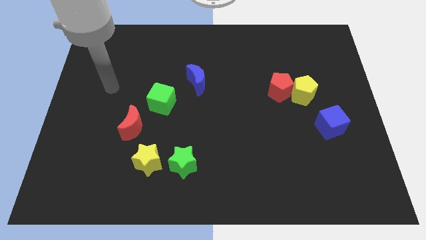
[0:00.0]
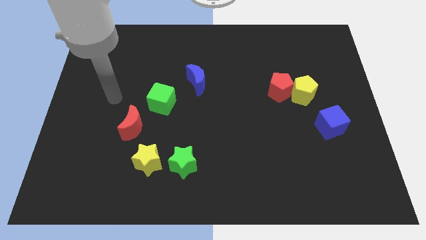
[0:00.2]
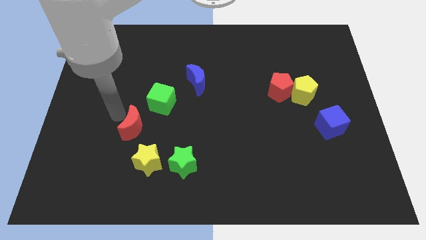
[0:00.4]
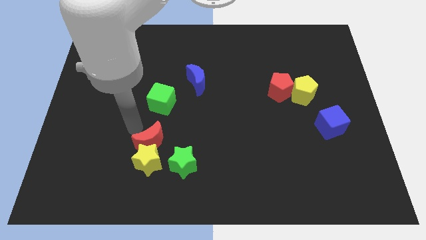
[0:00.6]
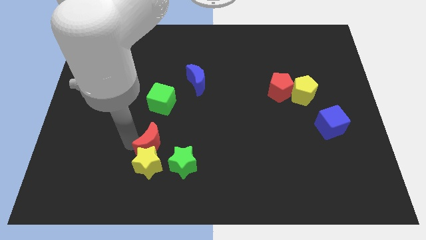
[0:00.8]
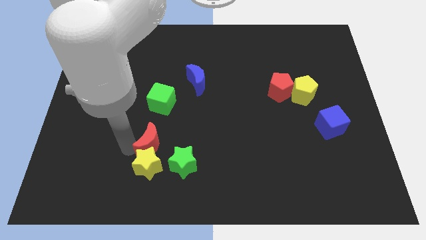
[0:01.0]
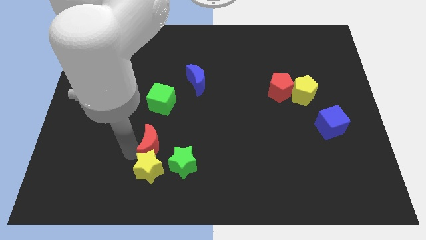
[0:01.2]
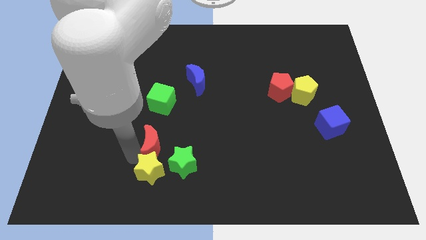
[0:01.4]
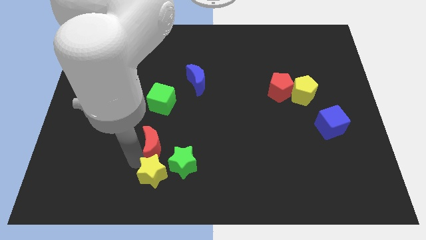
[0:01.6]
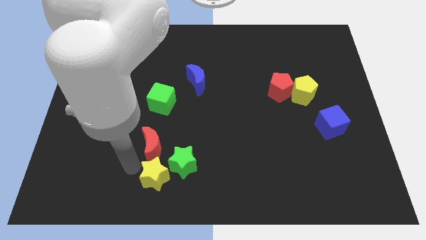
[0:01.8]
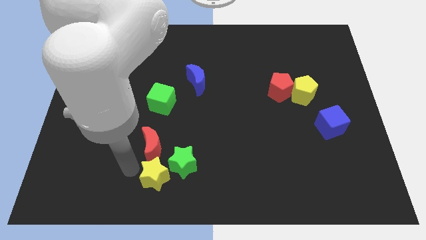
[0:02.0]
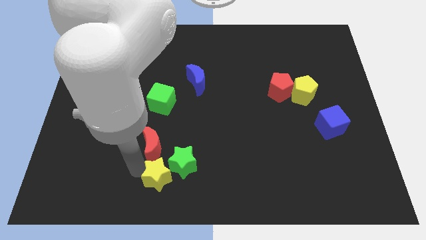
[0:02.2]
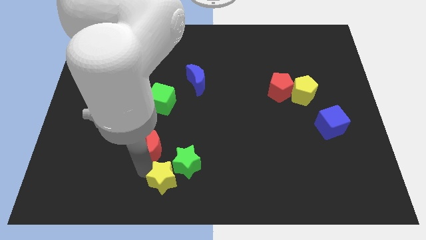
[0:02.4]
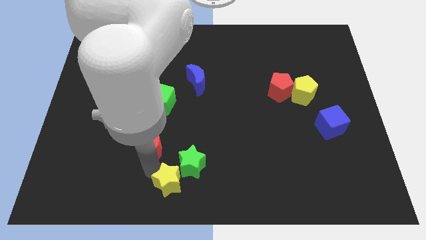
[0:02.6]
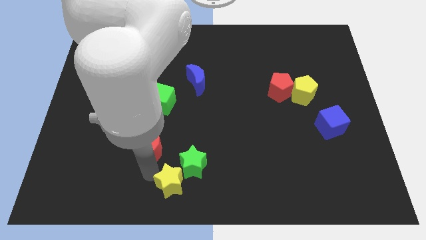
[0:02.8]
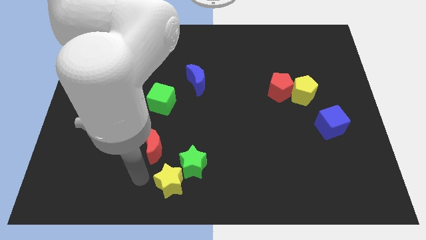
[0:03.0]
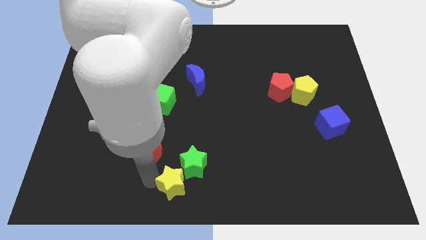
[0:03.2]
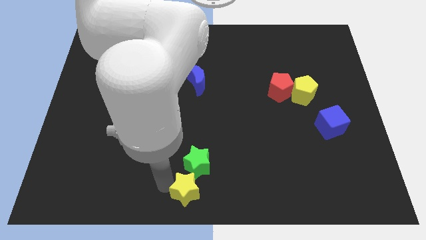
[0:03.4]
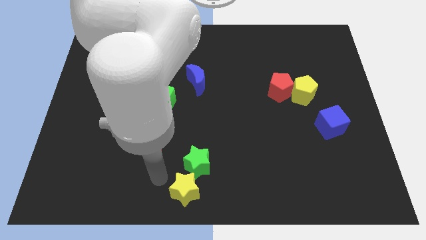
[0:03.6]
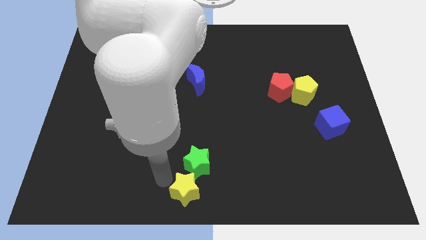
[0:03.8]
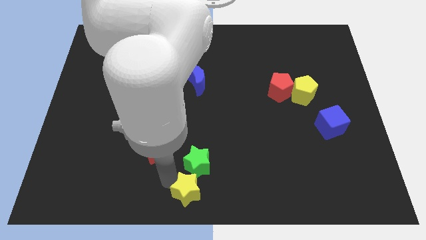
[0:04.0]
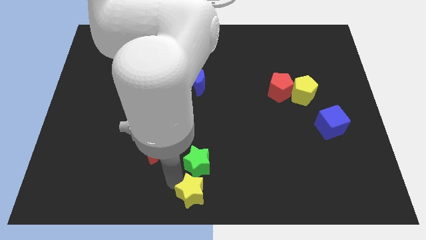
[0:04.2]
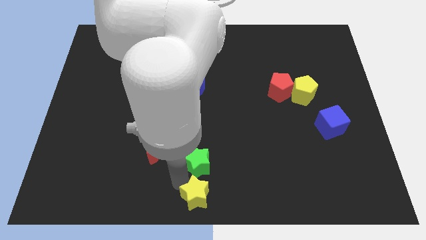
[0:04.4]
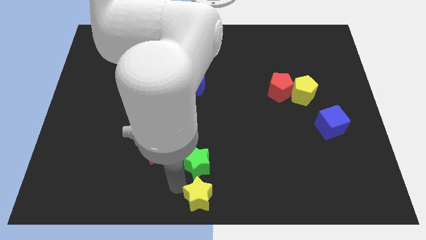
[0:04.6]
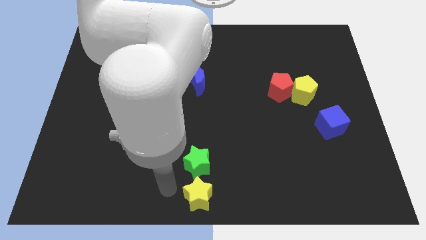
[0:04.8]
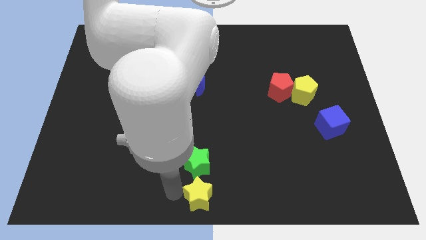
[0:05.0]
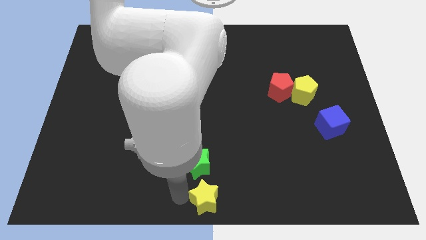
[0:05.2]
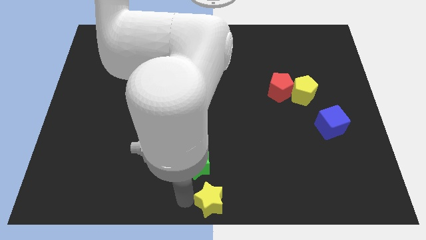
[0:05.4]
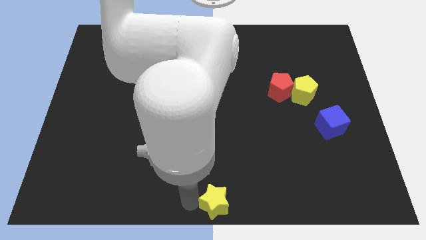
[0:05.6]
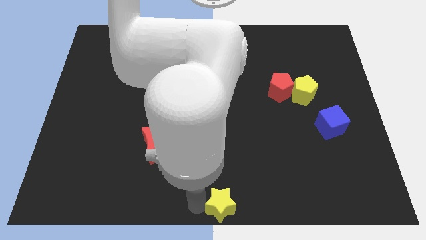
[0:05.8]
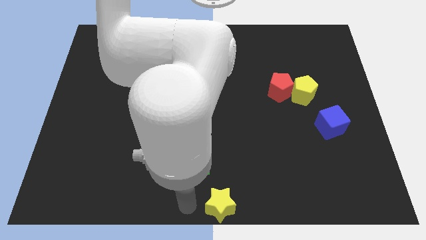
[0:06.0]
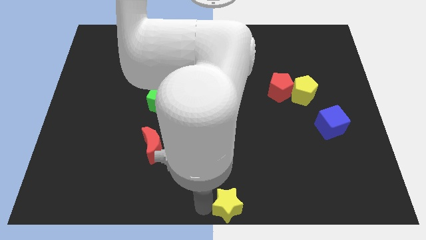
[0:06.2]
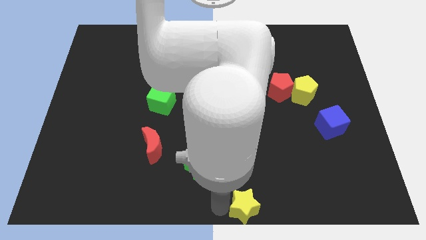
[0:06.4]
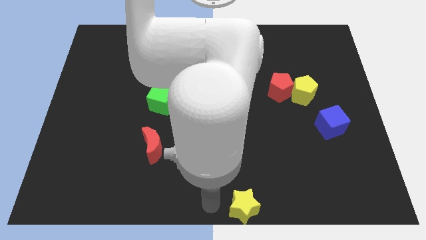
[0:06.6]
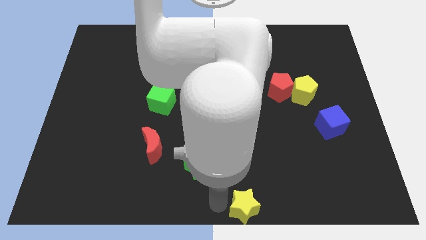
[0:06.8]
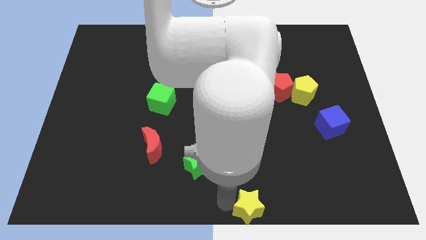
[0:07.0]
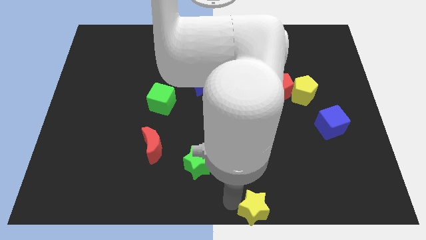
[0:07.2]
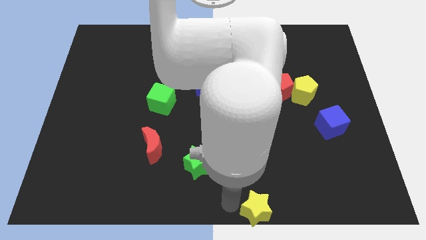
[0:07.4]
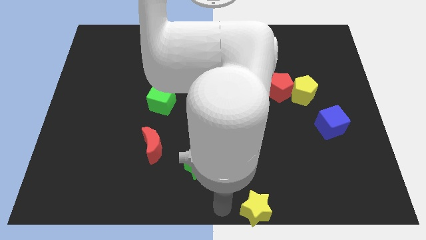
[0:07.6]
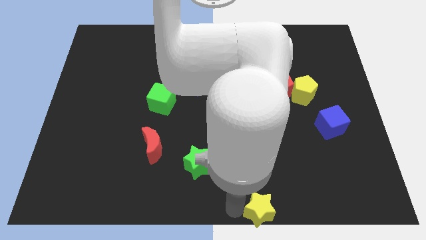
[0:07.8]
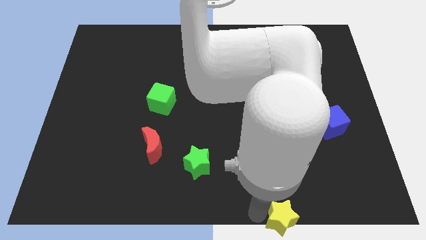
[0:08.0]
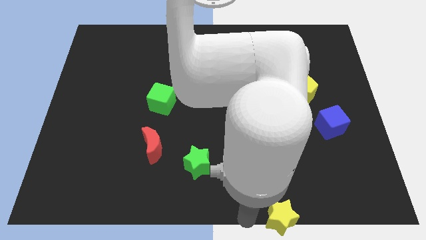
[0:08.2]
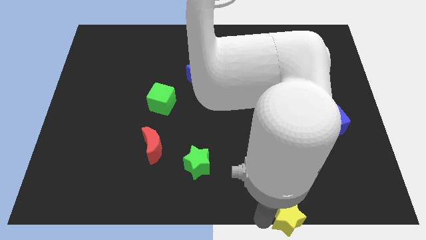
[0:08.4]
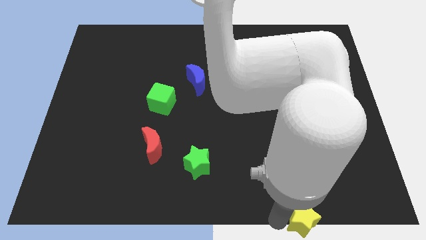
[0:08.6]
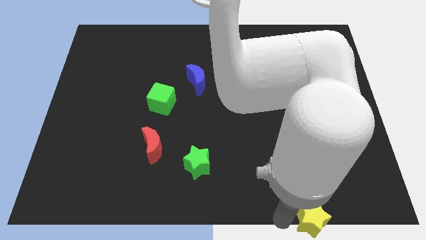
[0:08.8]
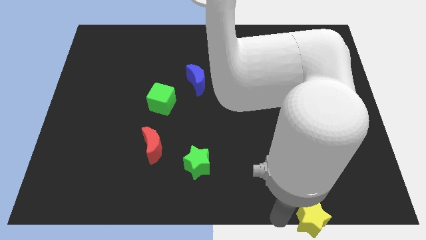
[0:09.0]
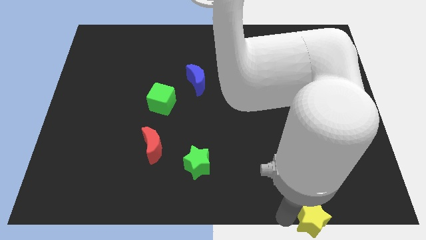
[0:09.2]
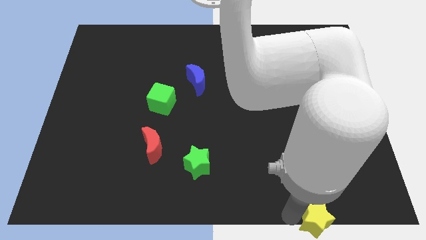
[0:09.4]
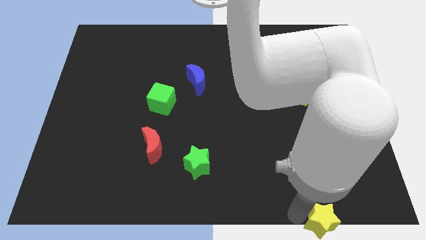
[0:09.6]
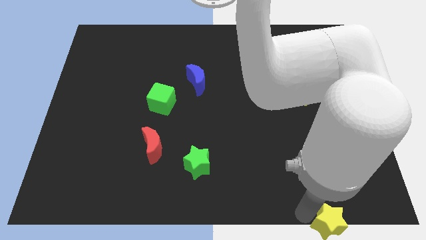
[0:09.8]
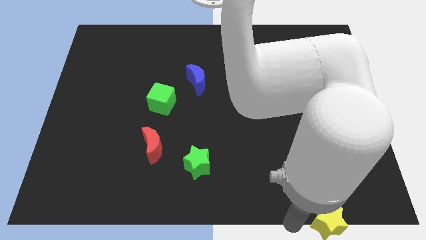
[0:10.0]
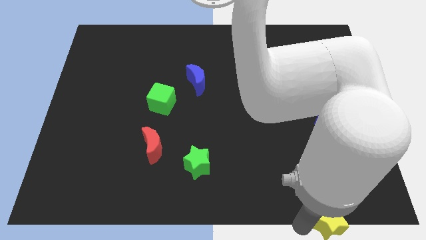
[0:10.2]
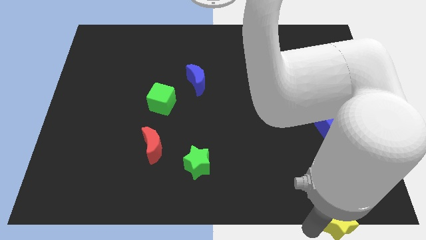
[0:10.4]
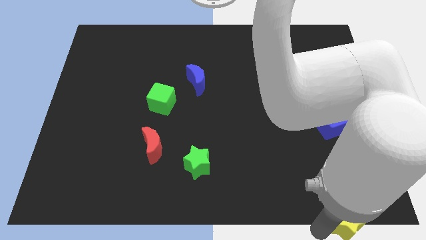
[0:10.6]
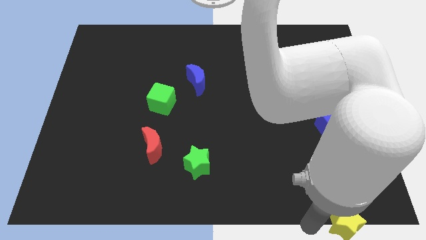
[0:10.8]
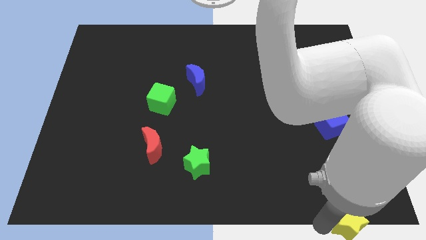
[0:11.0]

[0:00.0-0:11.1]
move the yellow star to the bottom right corner
